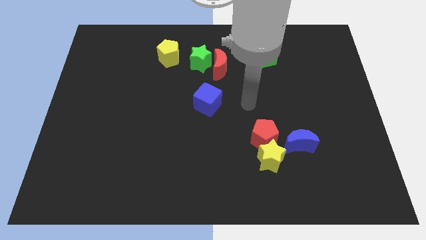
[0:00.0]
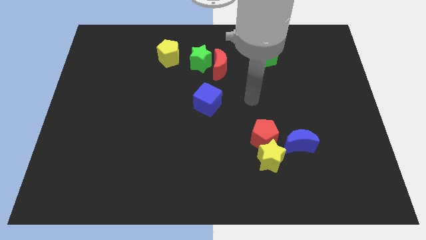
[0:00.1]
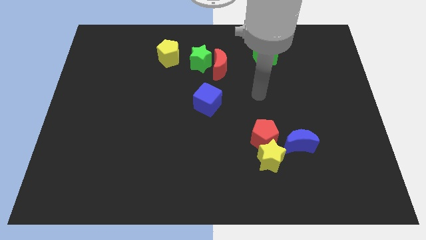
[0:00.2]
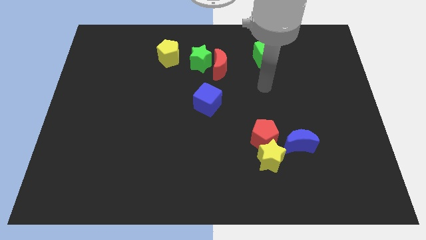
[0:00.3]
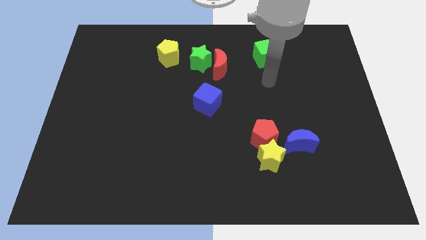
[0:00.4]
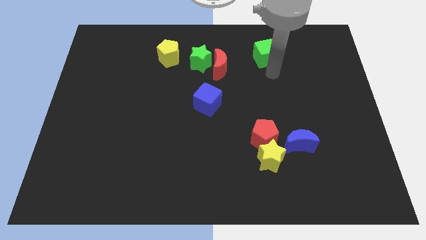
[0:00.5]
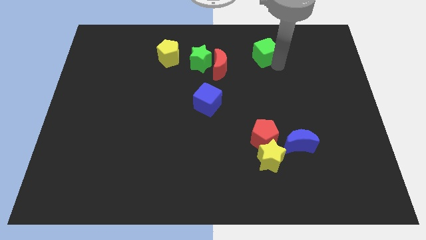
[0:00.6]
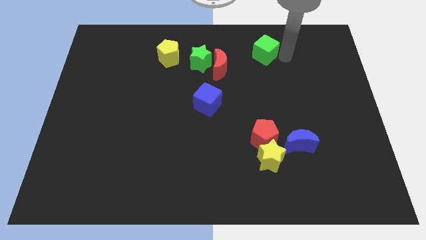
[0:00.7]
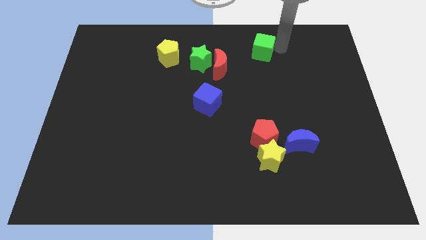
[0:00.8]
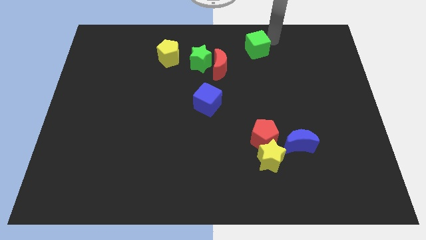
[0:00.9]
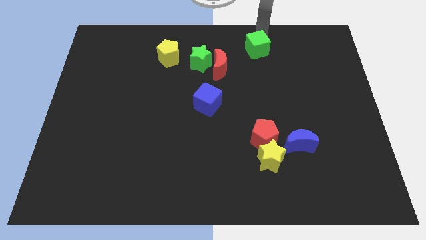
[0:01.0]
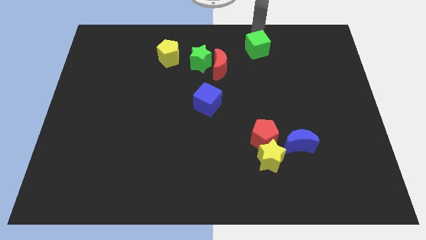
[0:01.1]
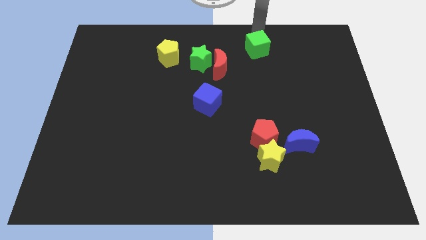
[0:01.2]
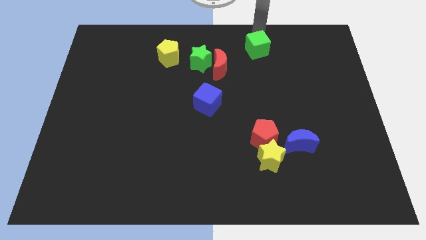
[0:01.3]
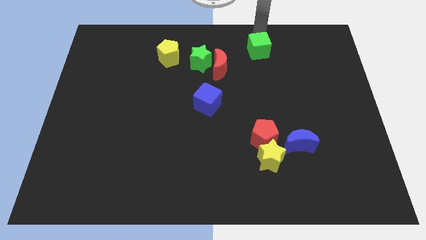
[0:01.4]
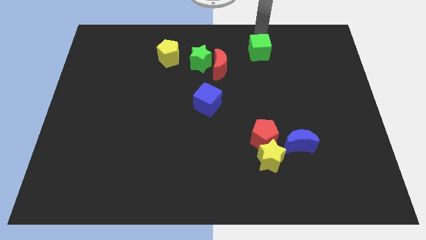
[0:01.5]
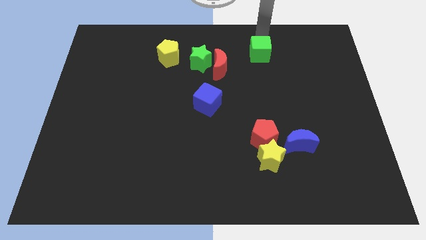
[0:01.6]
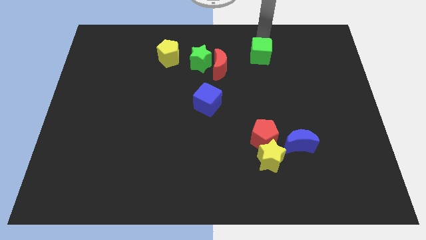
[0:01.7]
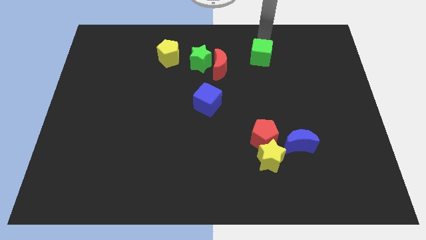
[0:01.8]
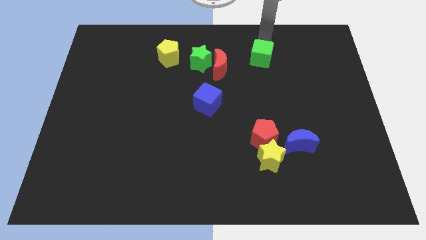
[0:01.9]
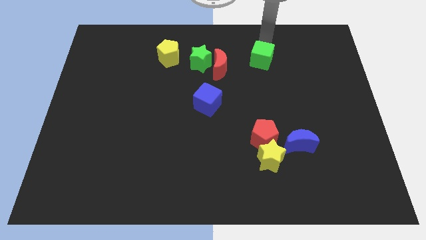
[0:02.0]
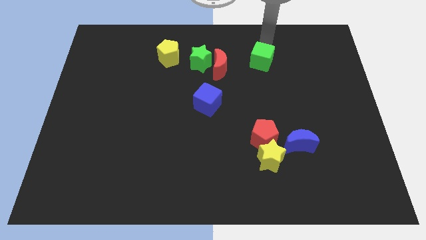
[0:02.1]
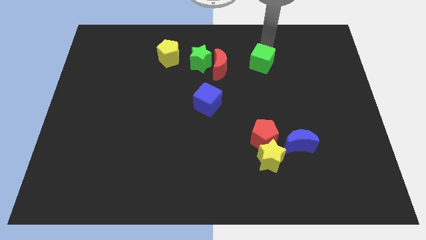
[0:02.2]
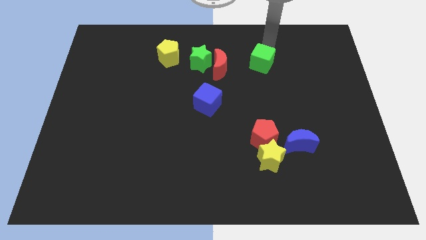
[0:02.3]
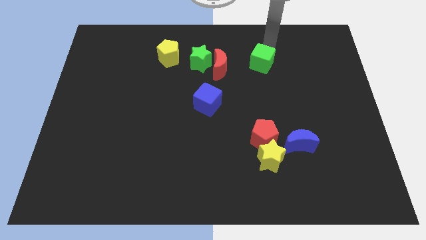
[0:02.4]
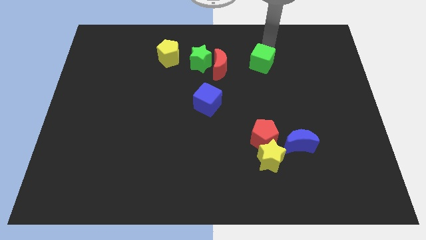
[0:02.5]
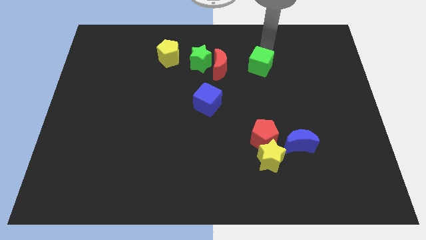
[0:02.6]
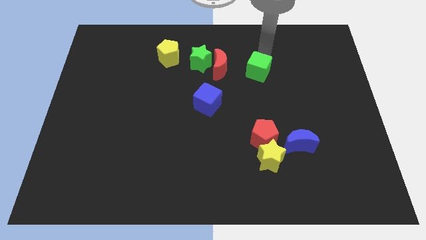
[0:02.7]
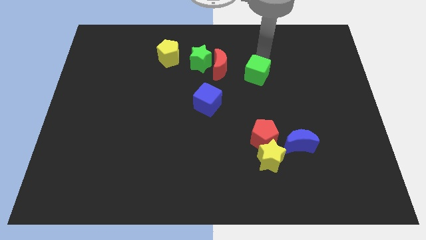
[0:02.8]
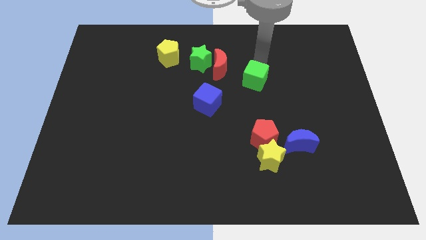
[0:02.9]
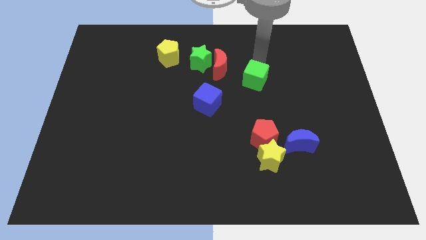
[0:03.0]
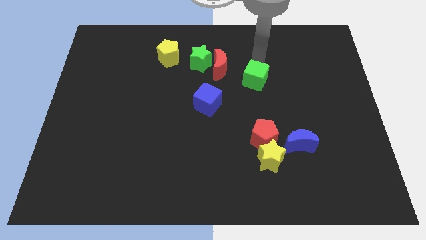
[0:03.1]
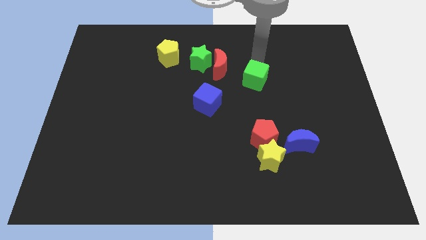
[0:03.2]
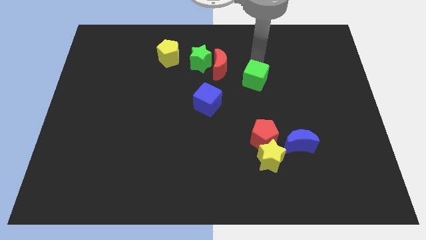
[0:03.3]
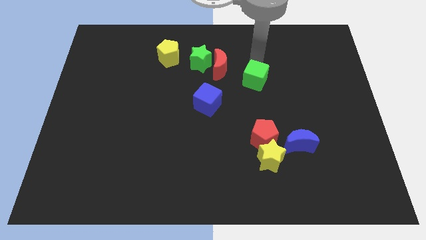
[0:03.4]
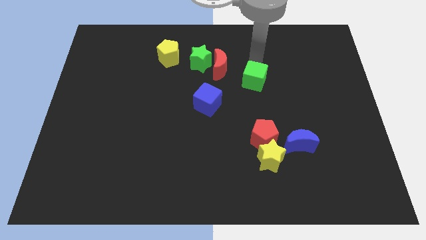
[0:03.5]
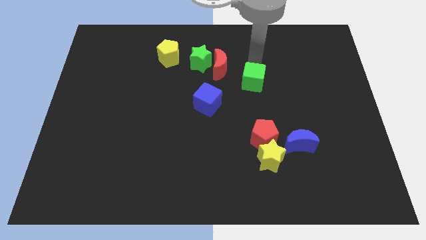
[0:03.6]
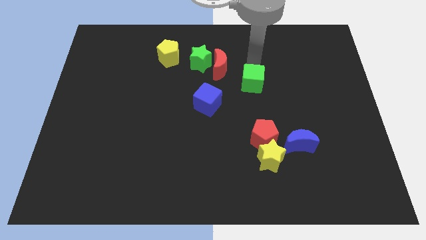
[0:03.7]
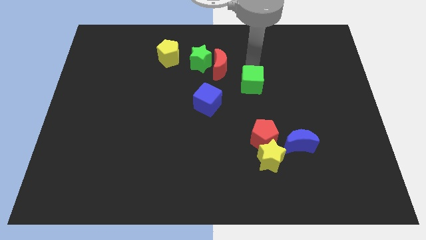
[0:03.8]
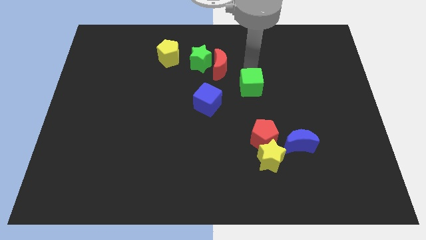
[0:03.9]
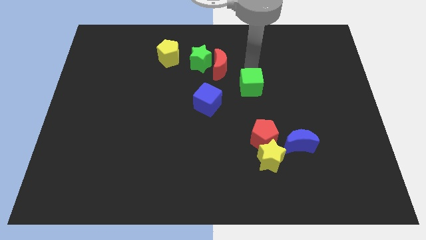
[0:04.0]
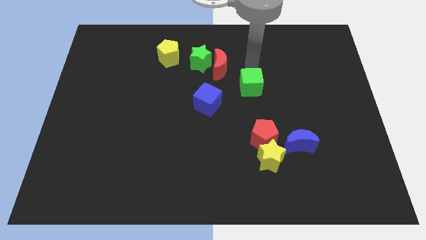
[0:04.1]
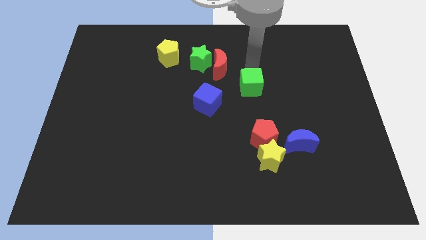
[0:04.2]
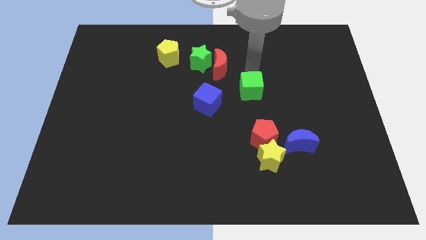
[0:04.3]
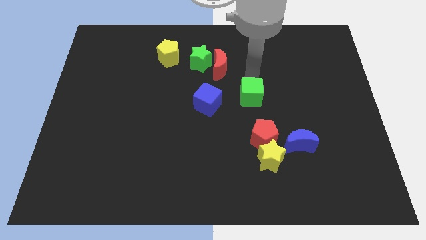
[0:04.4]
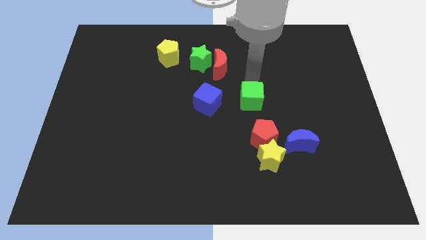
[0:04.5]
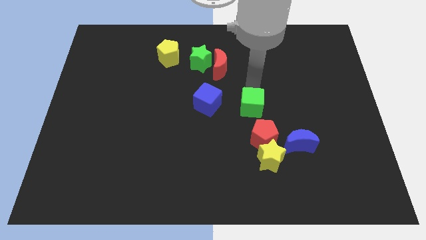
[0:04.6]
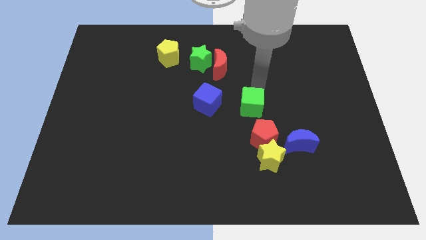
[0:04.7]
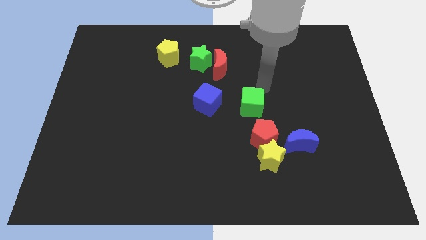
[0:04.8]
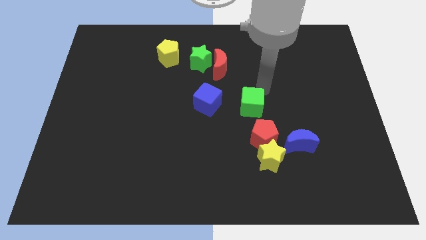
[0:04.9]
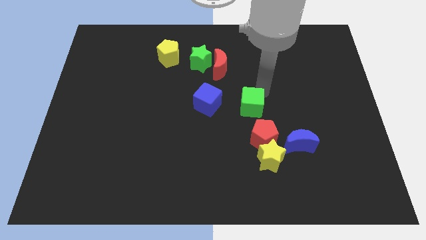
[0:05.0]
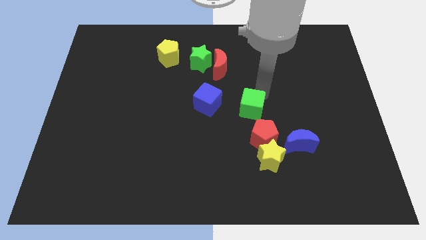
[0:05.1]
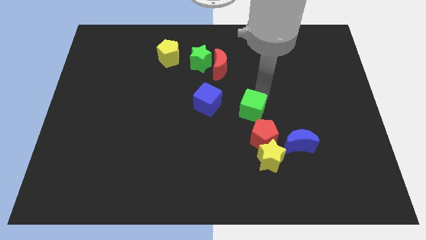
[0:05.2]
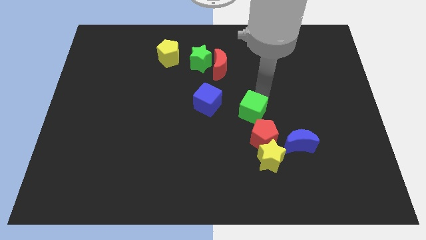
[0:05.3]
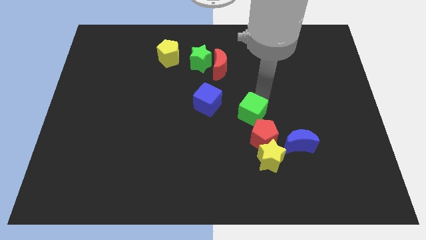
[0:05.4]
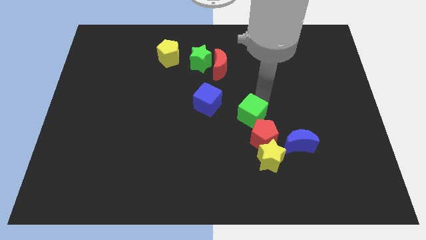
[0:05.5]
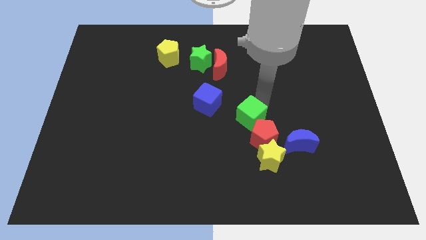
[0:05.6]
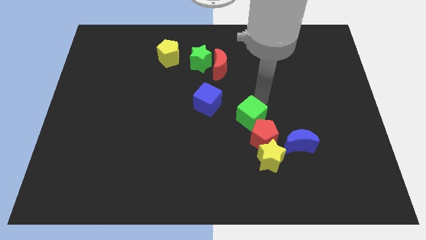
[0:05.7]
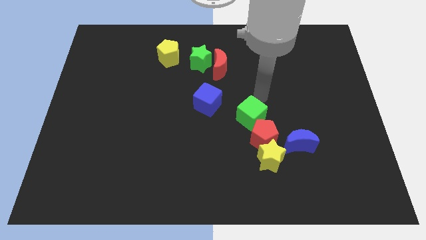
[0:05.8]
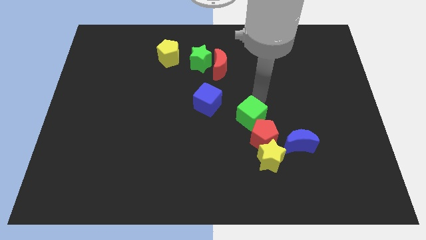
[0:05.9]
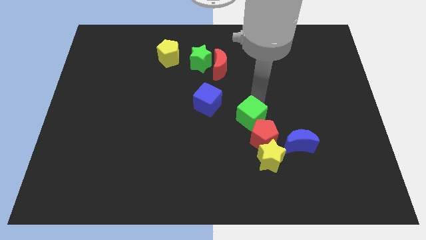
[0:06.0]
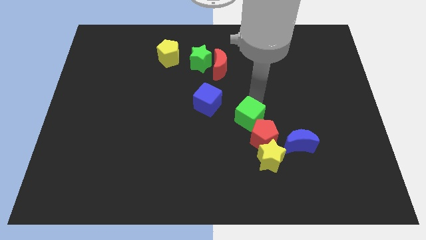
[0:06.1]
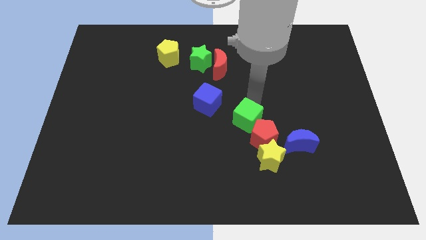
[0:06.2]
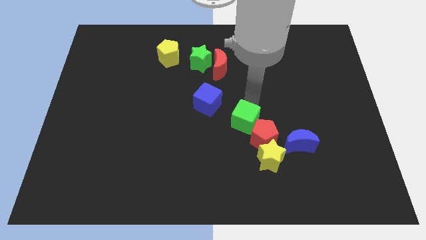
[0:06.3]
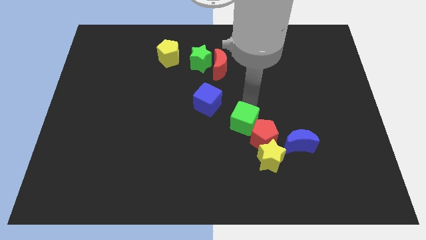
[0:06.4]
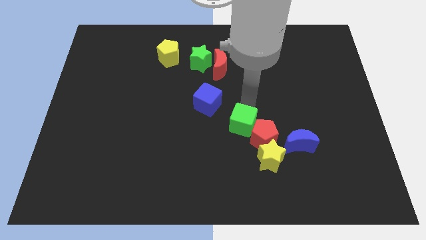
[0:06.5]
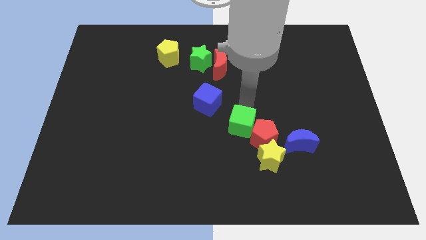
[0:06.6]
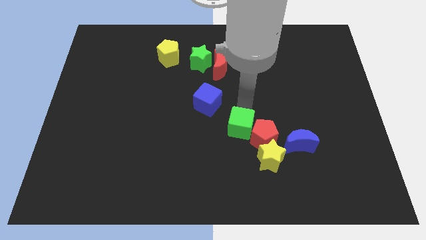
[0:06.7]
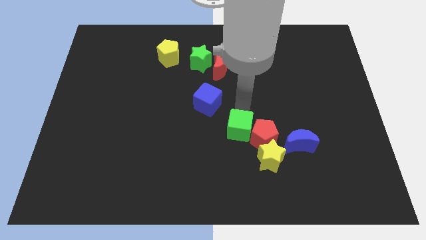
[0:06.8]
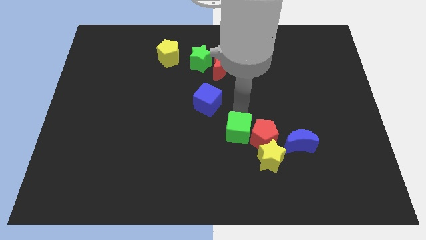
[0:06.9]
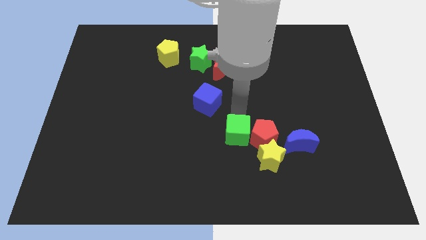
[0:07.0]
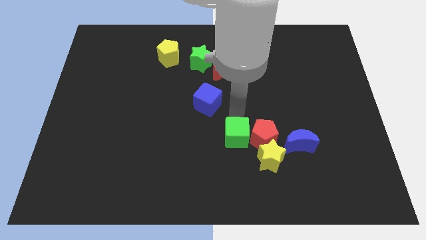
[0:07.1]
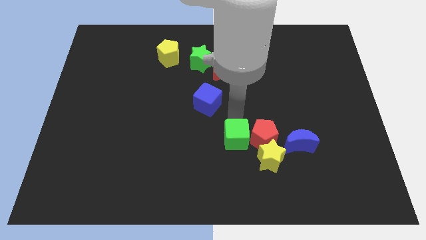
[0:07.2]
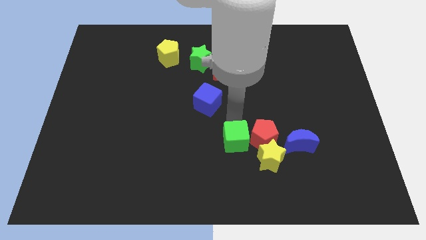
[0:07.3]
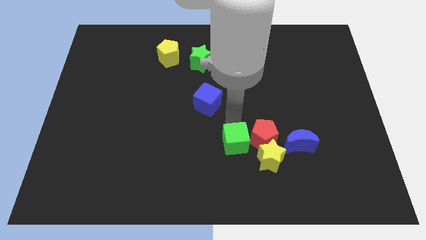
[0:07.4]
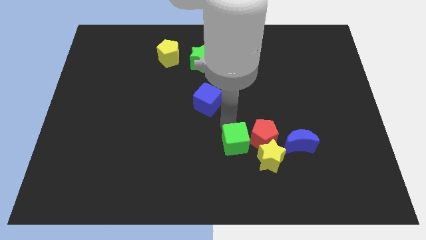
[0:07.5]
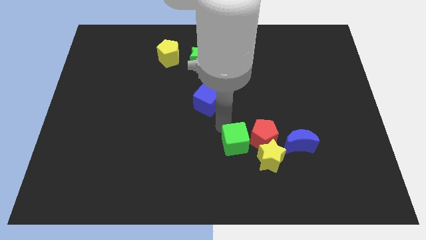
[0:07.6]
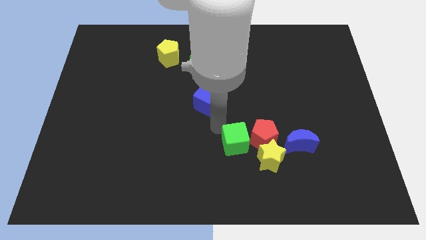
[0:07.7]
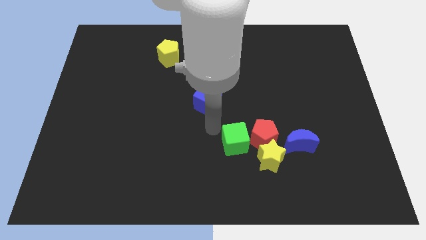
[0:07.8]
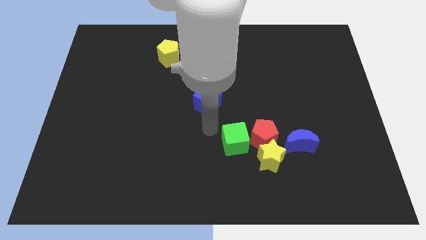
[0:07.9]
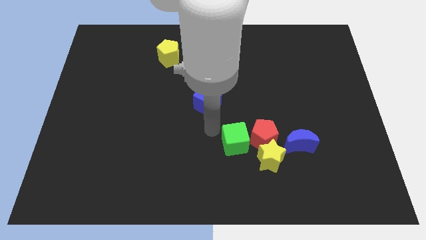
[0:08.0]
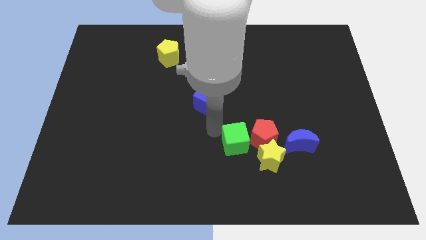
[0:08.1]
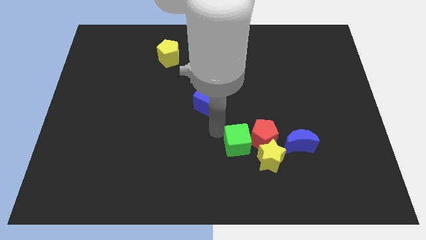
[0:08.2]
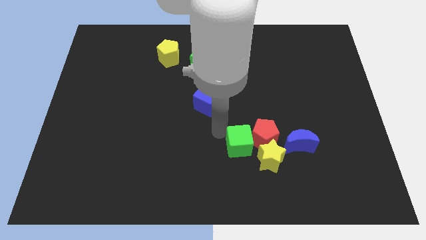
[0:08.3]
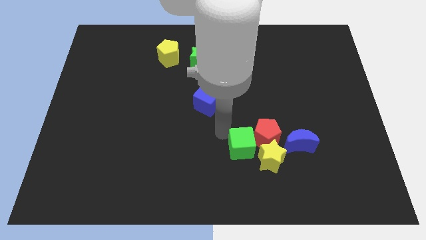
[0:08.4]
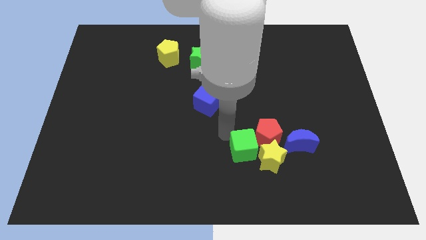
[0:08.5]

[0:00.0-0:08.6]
move the green cube close to the yellow star
